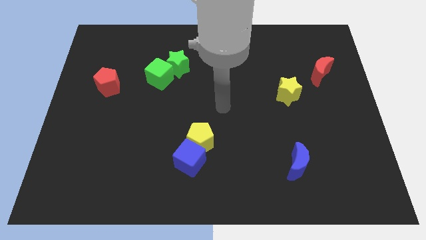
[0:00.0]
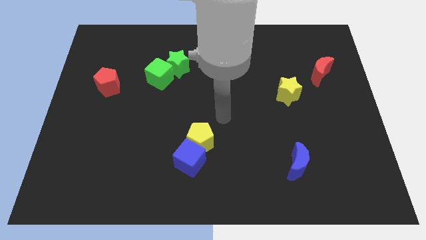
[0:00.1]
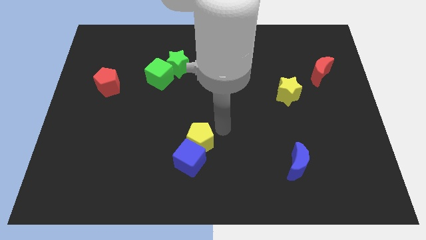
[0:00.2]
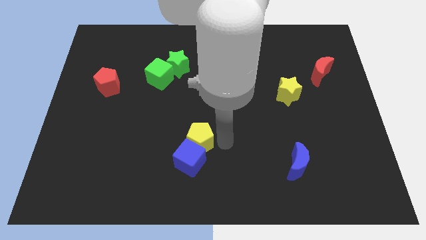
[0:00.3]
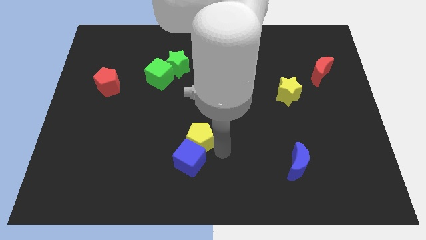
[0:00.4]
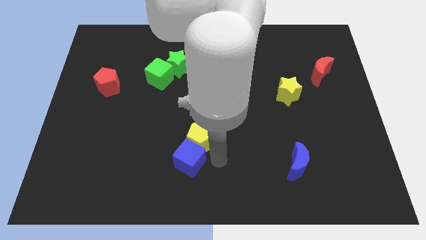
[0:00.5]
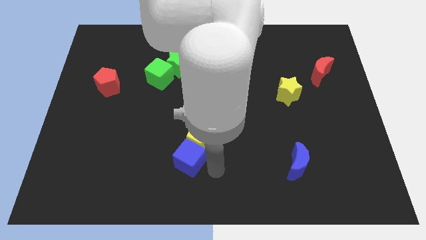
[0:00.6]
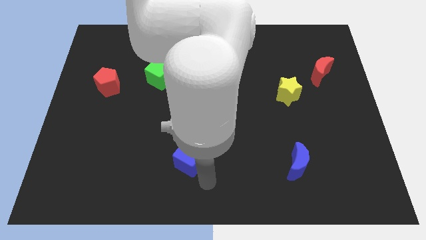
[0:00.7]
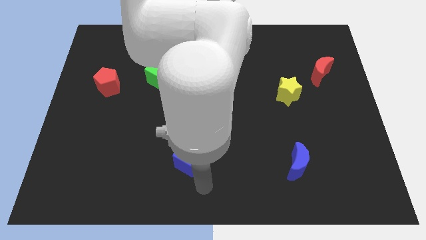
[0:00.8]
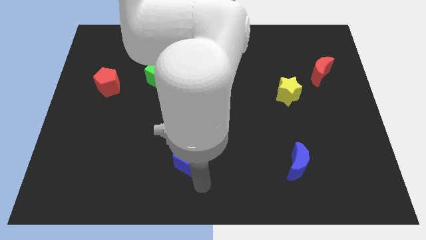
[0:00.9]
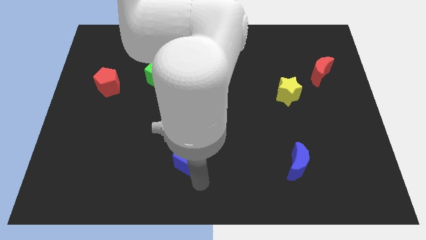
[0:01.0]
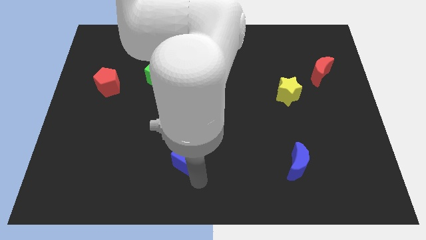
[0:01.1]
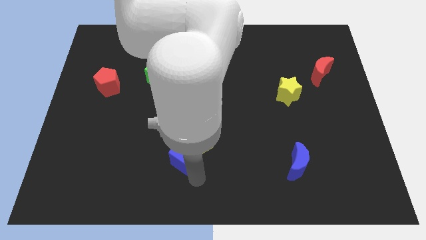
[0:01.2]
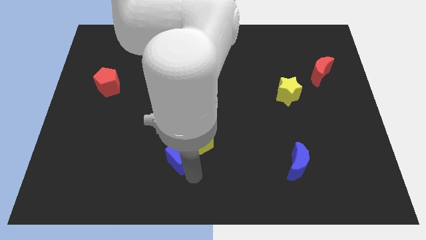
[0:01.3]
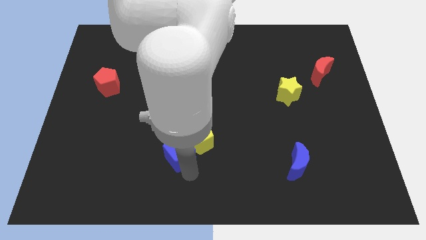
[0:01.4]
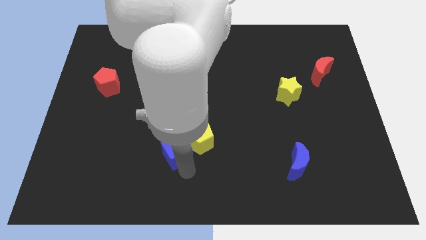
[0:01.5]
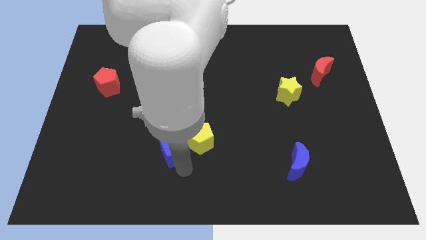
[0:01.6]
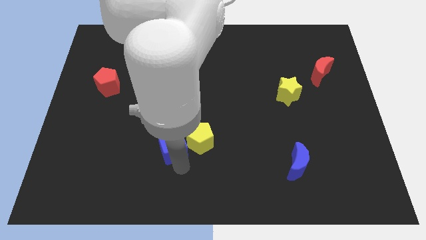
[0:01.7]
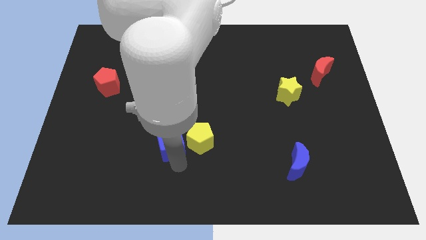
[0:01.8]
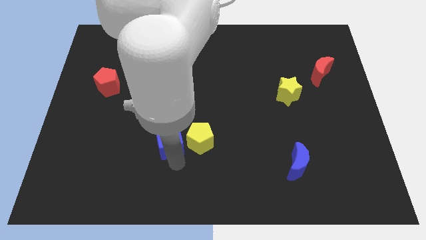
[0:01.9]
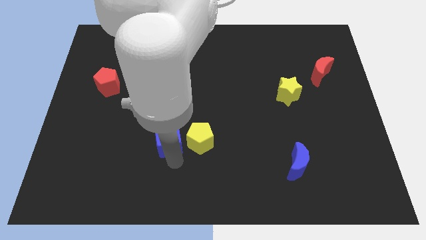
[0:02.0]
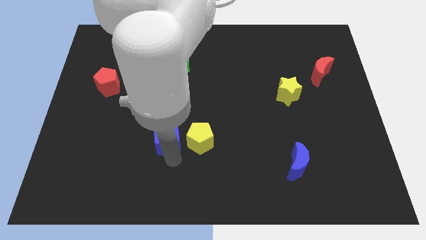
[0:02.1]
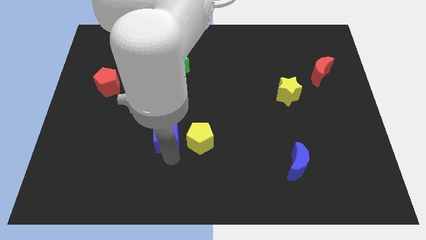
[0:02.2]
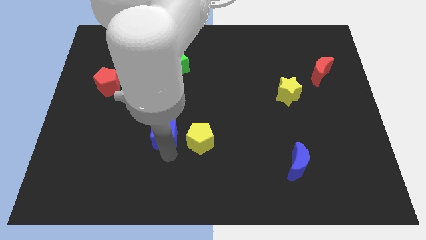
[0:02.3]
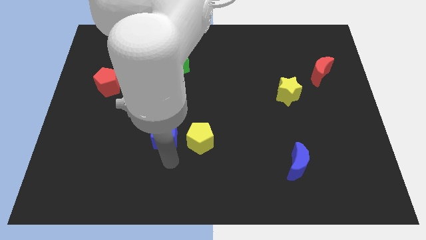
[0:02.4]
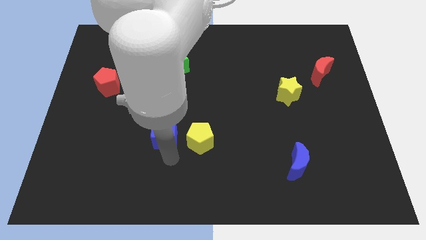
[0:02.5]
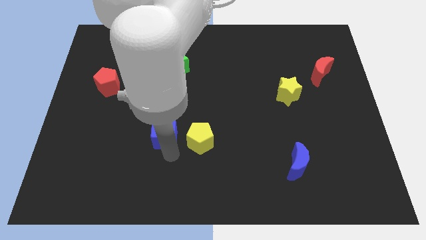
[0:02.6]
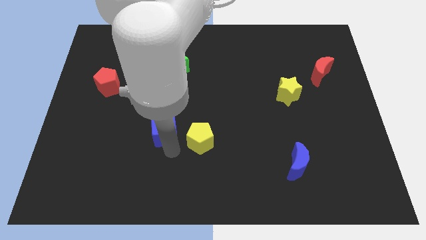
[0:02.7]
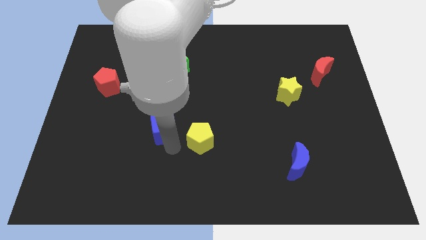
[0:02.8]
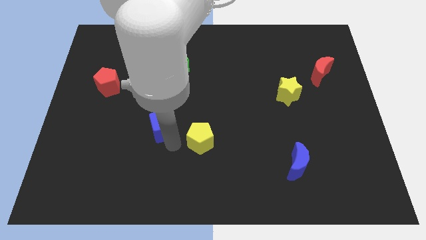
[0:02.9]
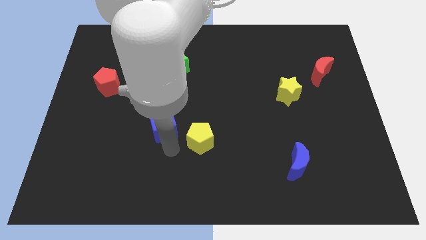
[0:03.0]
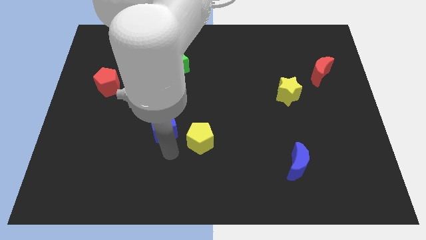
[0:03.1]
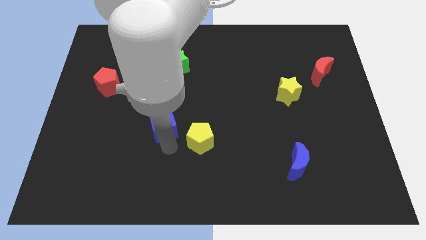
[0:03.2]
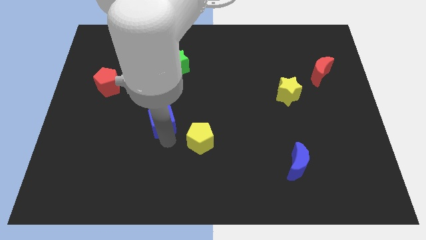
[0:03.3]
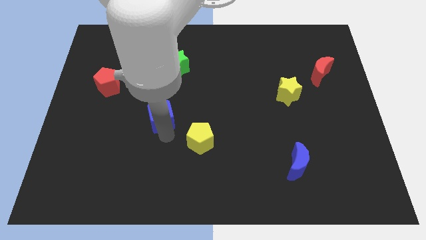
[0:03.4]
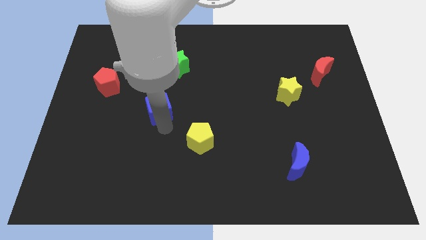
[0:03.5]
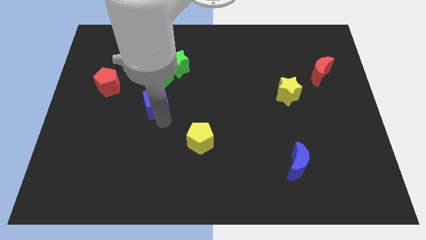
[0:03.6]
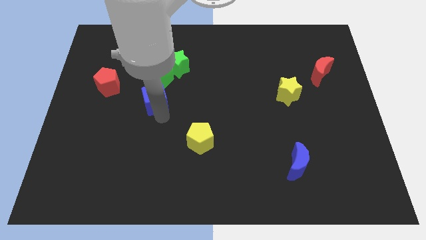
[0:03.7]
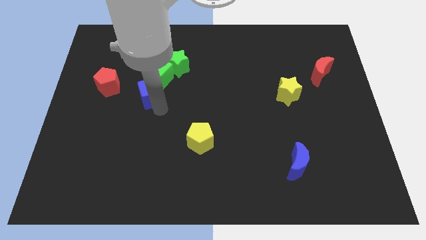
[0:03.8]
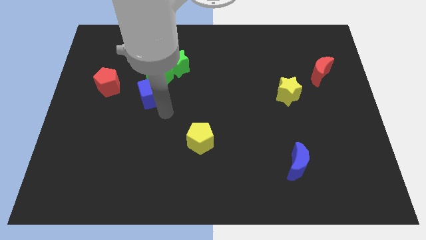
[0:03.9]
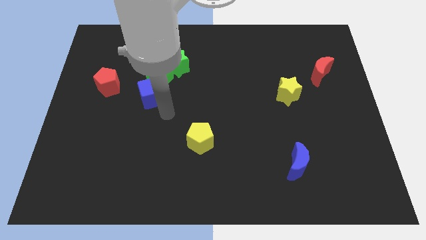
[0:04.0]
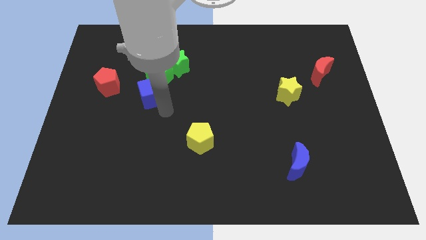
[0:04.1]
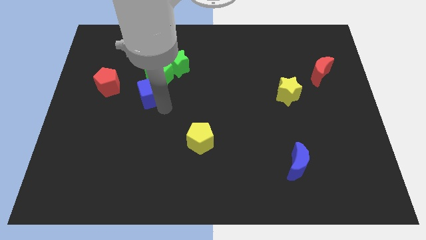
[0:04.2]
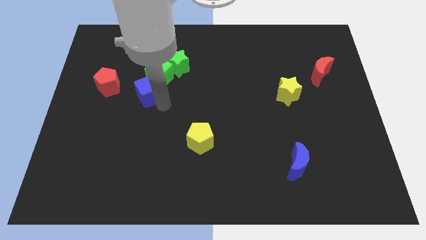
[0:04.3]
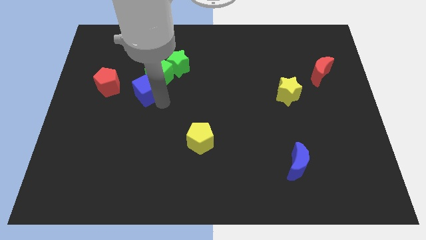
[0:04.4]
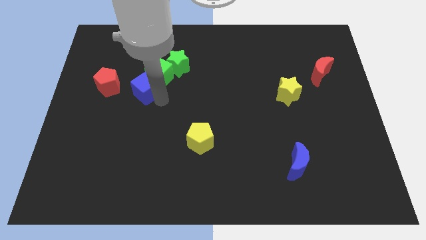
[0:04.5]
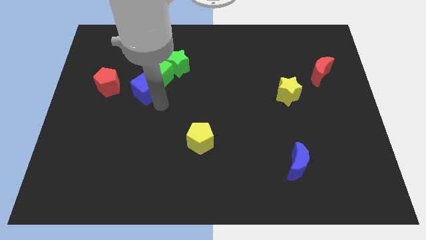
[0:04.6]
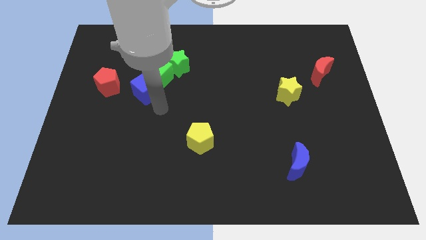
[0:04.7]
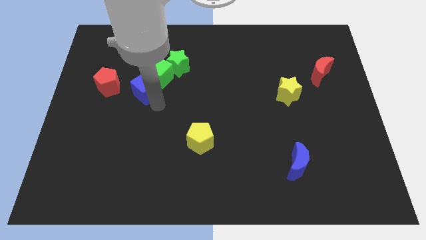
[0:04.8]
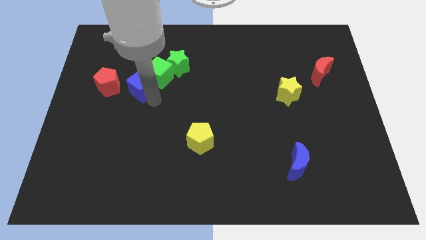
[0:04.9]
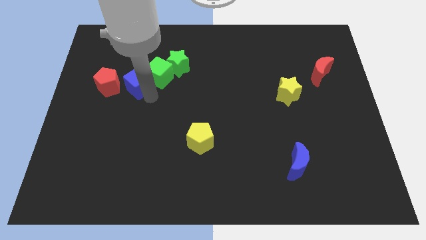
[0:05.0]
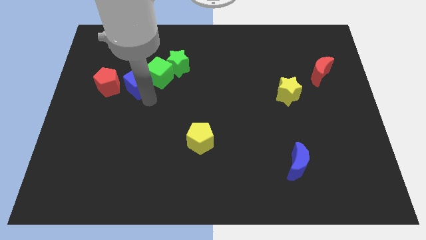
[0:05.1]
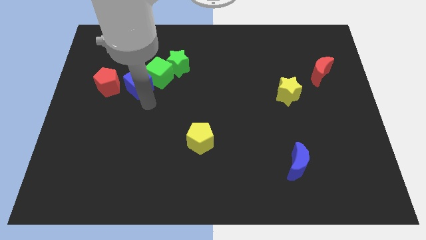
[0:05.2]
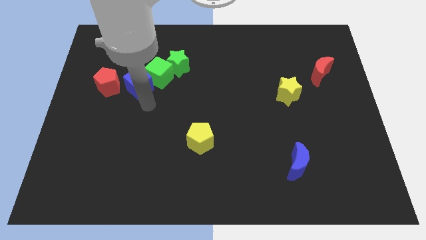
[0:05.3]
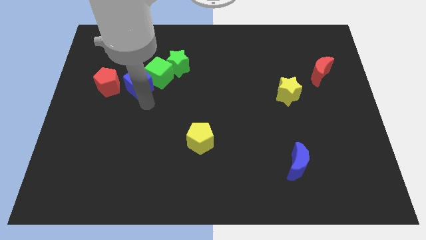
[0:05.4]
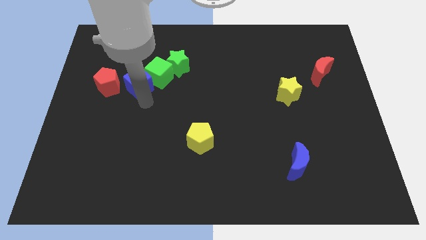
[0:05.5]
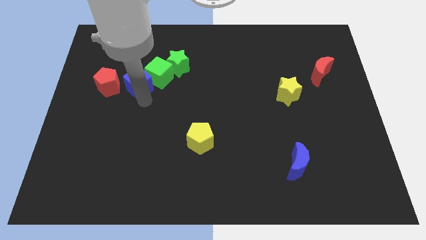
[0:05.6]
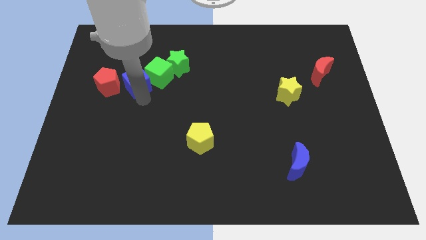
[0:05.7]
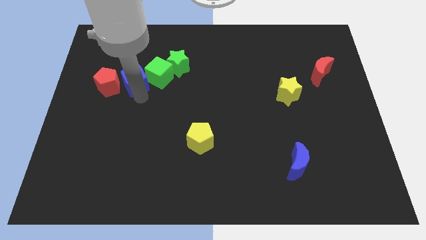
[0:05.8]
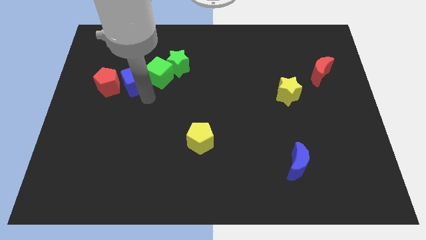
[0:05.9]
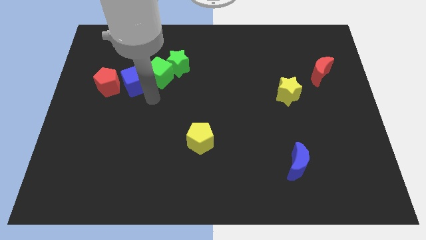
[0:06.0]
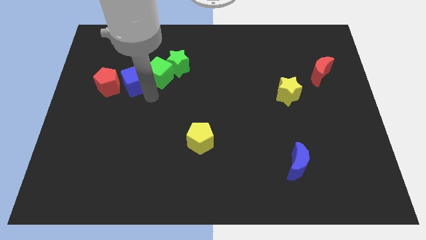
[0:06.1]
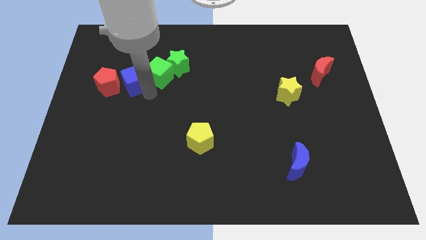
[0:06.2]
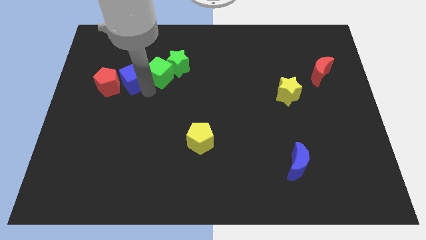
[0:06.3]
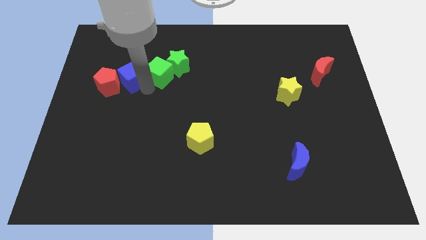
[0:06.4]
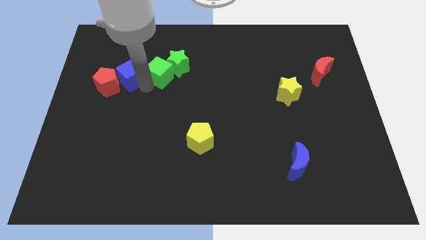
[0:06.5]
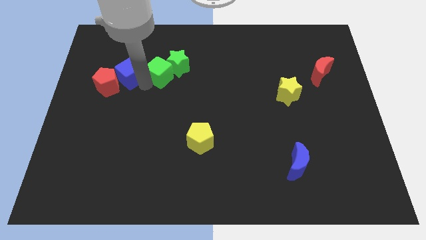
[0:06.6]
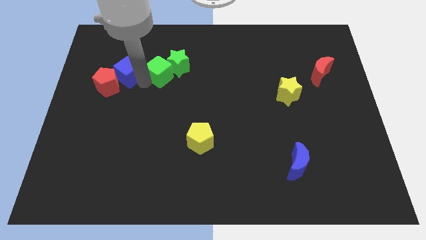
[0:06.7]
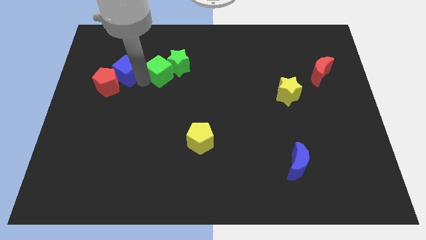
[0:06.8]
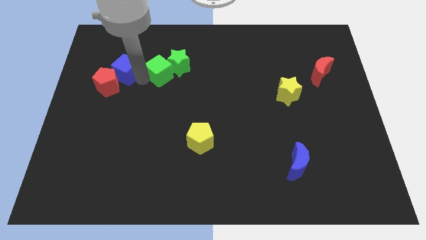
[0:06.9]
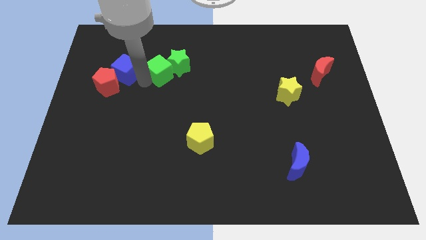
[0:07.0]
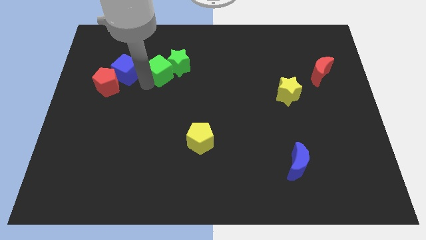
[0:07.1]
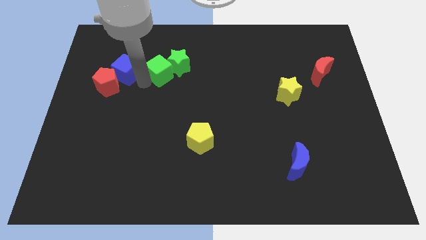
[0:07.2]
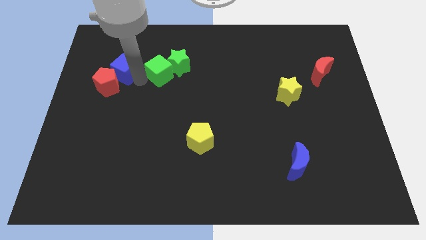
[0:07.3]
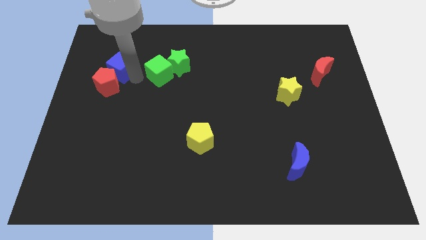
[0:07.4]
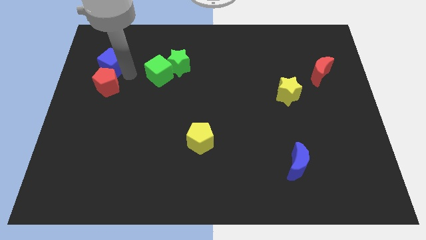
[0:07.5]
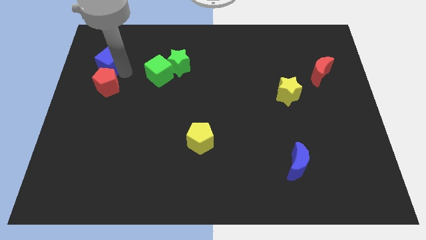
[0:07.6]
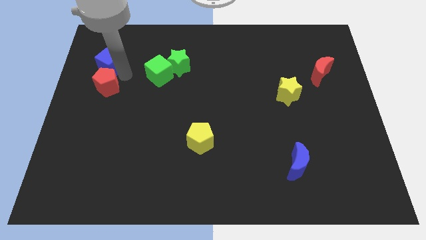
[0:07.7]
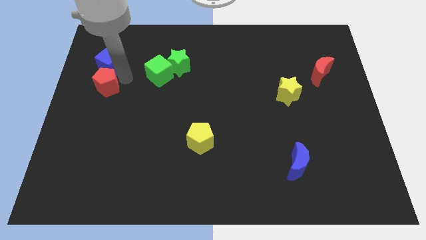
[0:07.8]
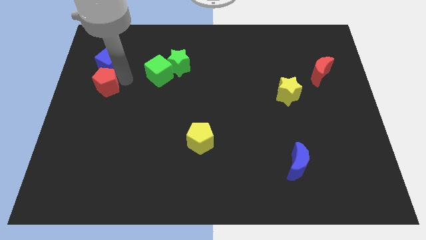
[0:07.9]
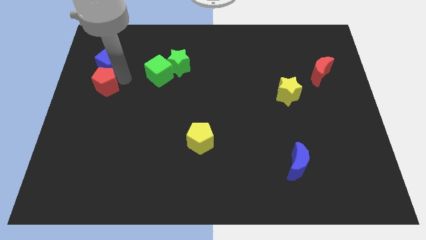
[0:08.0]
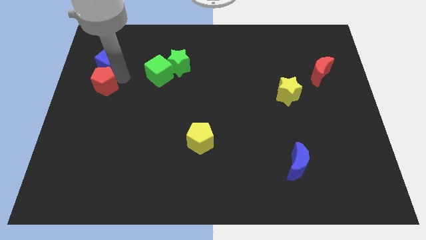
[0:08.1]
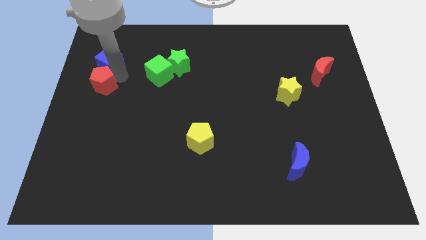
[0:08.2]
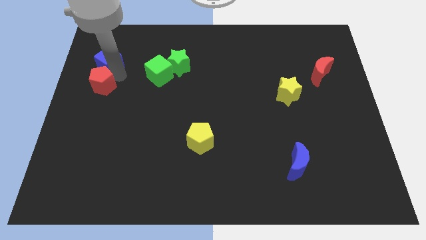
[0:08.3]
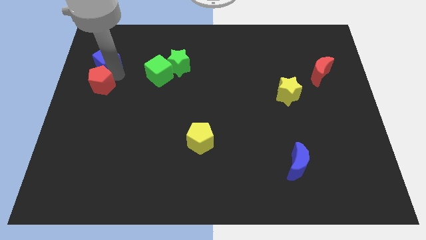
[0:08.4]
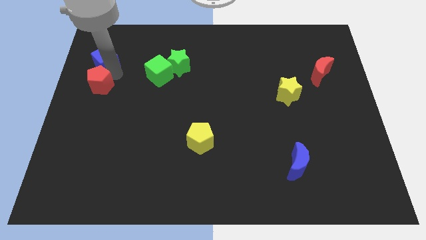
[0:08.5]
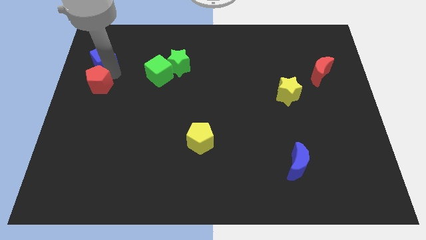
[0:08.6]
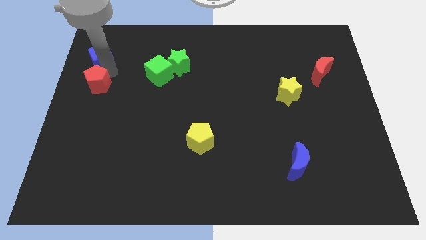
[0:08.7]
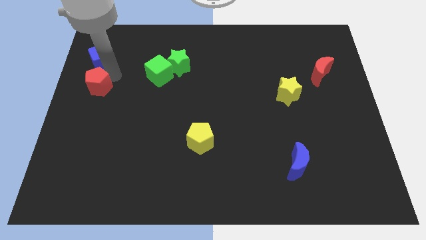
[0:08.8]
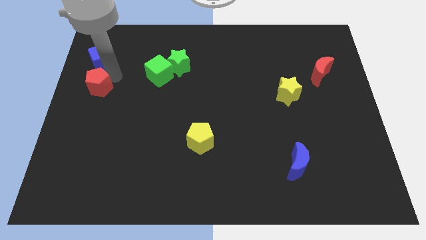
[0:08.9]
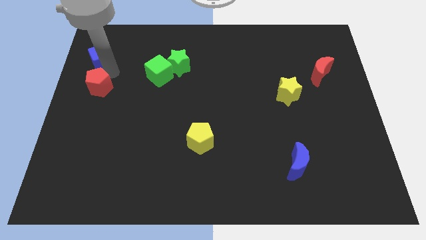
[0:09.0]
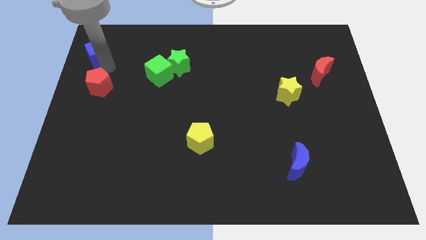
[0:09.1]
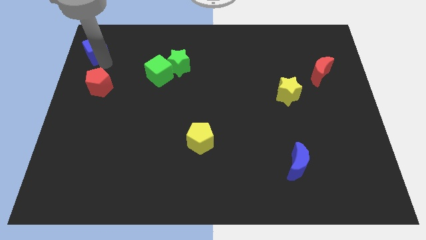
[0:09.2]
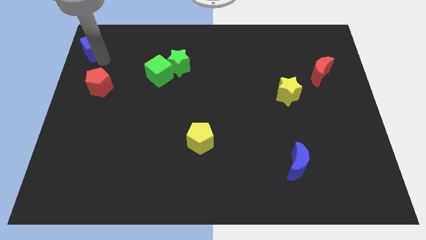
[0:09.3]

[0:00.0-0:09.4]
move the blue cube to the top left of the board
